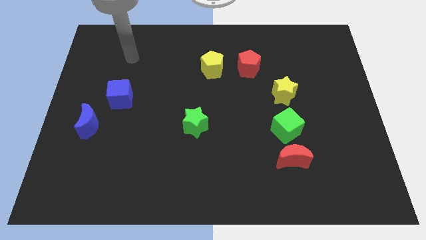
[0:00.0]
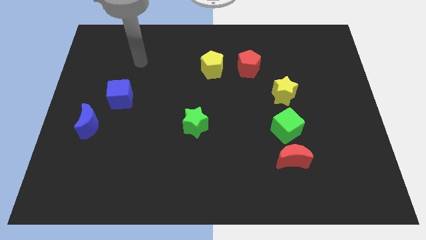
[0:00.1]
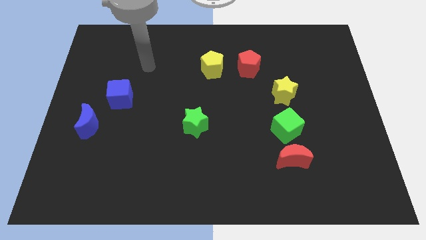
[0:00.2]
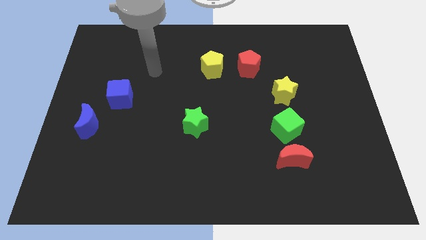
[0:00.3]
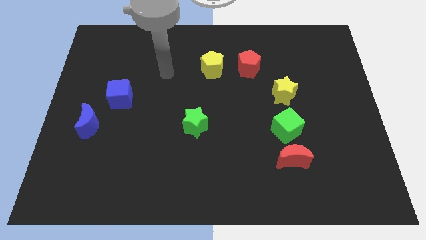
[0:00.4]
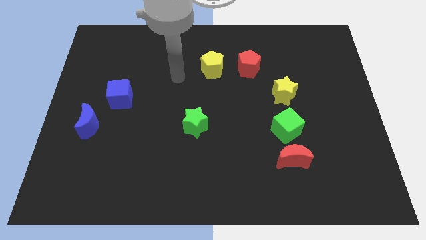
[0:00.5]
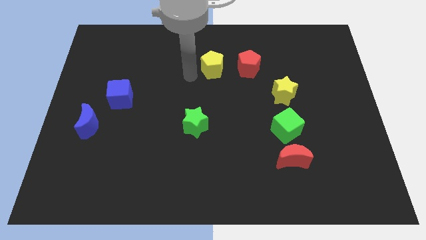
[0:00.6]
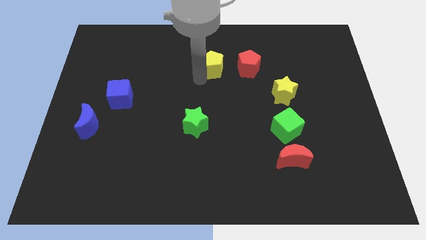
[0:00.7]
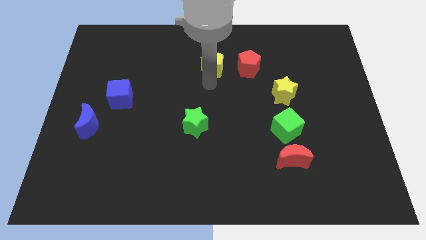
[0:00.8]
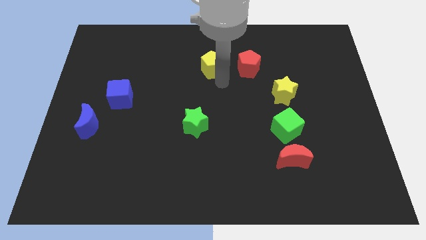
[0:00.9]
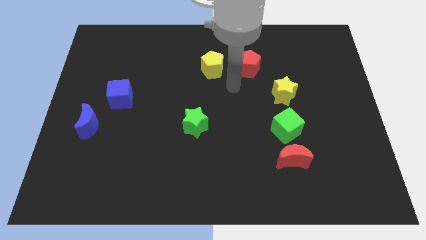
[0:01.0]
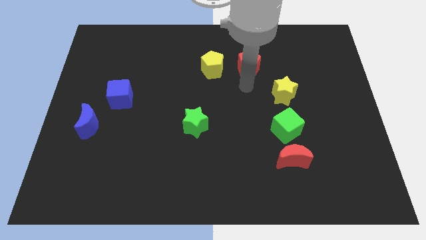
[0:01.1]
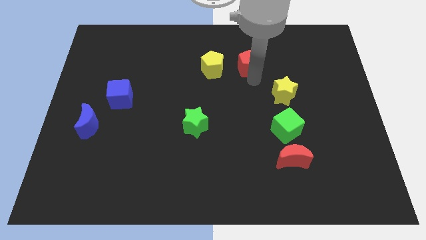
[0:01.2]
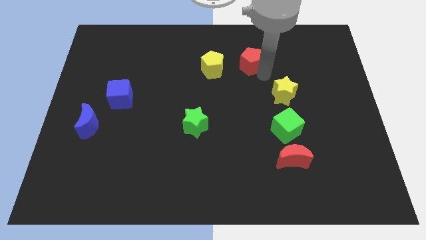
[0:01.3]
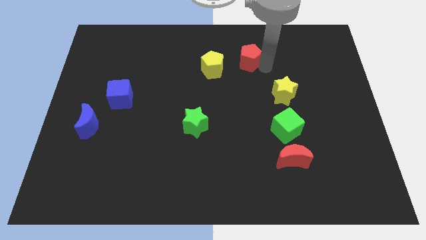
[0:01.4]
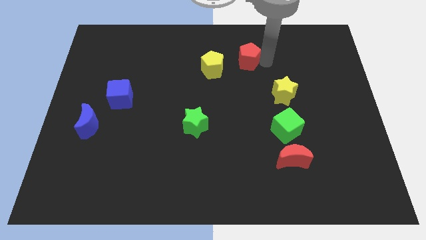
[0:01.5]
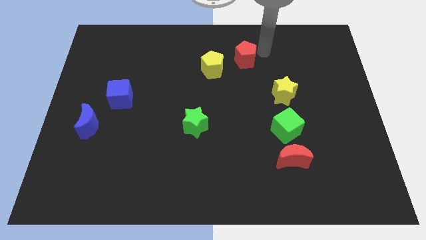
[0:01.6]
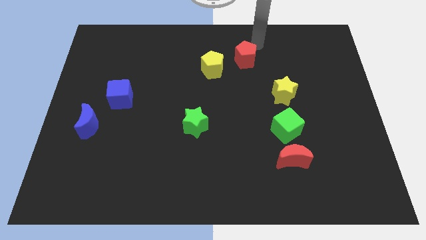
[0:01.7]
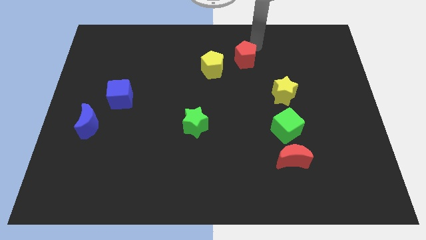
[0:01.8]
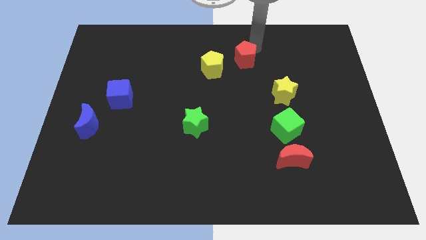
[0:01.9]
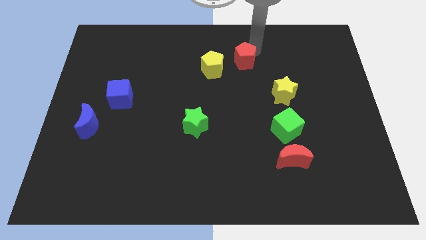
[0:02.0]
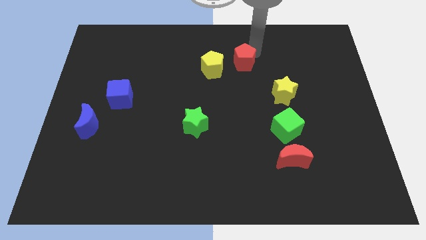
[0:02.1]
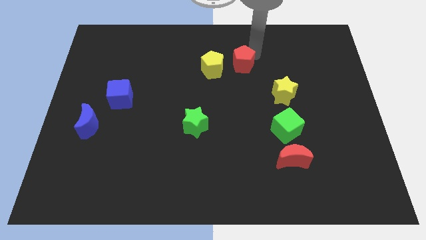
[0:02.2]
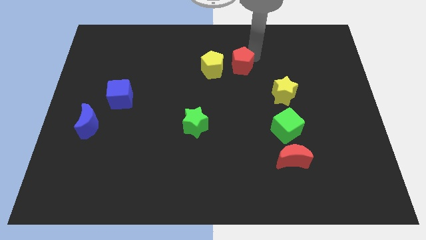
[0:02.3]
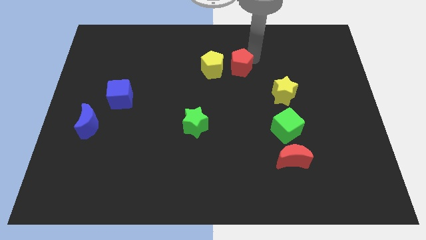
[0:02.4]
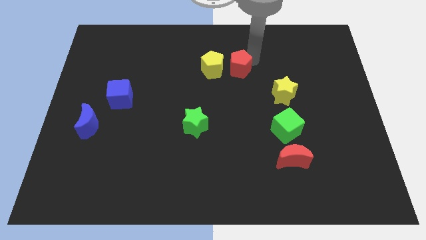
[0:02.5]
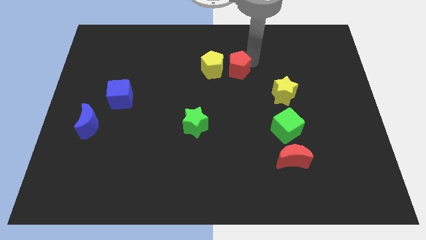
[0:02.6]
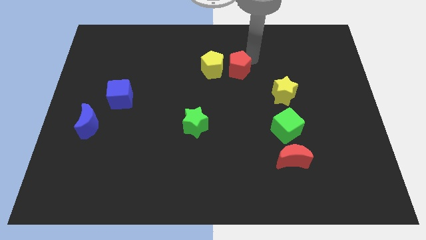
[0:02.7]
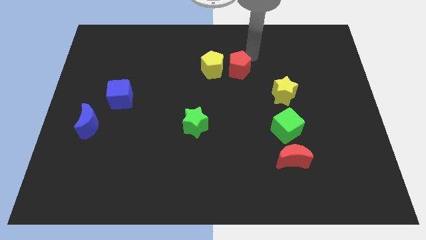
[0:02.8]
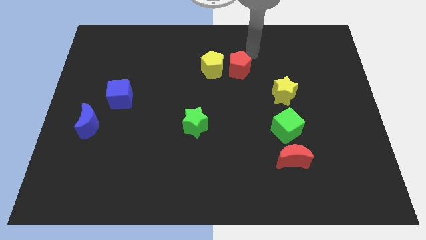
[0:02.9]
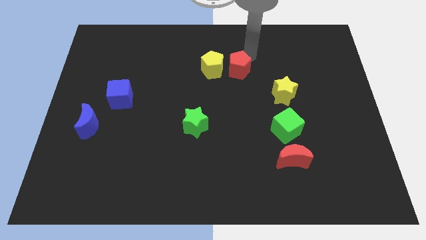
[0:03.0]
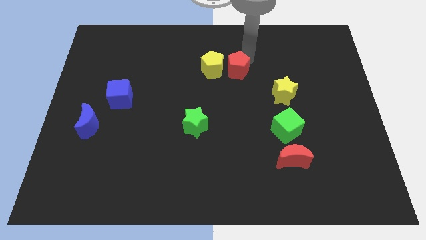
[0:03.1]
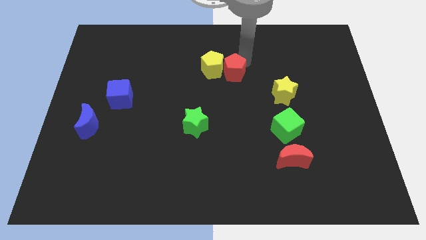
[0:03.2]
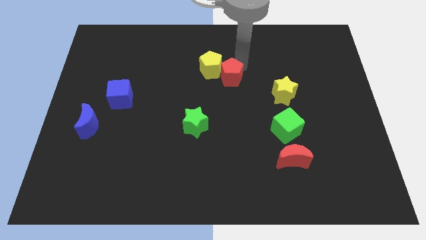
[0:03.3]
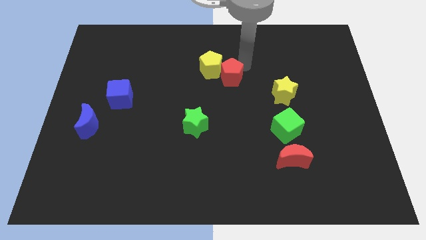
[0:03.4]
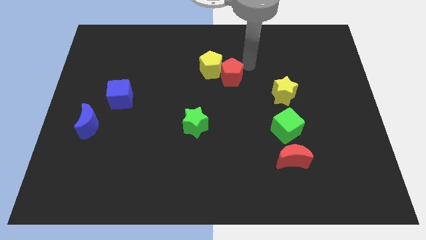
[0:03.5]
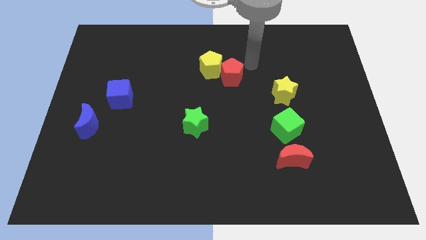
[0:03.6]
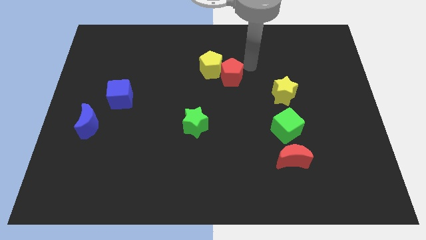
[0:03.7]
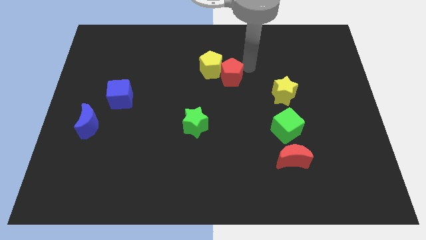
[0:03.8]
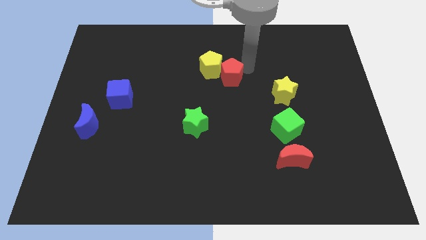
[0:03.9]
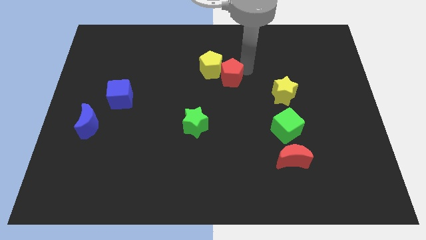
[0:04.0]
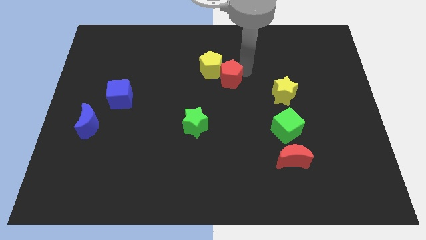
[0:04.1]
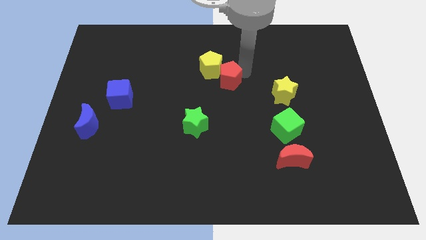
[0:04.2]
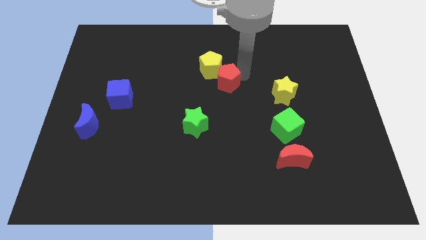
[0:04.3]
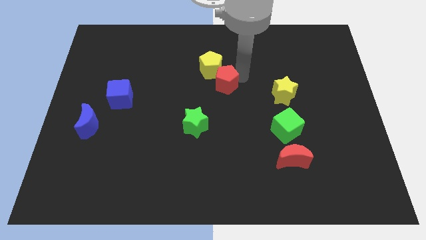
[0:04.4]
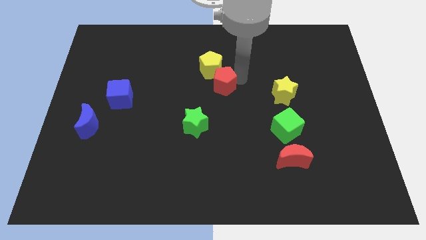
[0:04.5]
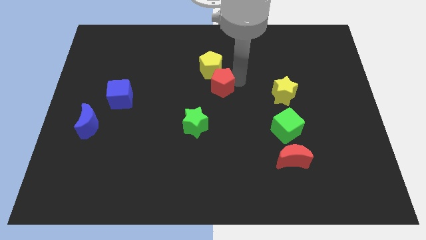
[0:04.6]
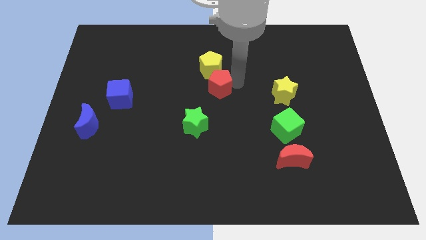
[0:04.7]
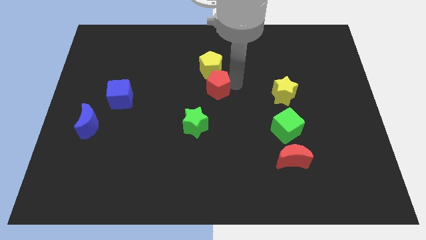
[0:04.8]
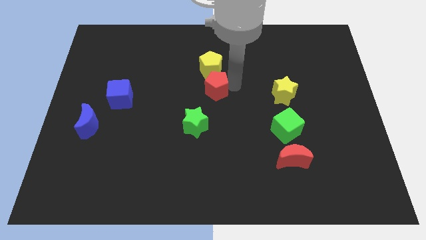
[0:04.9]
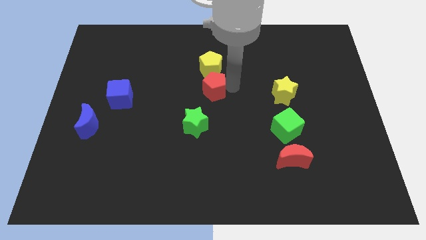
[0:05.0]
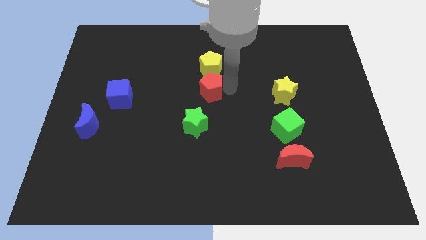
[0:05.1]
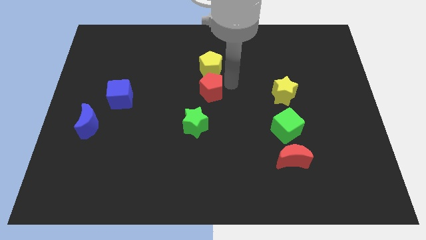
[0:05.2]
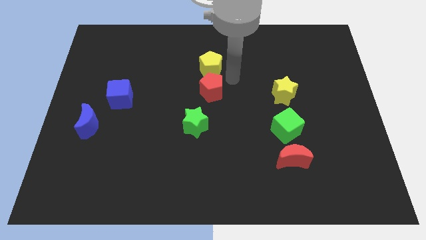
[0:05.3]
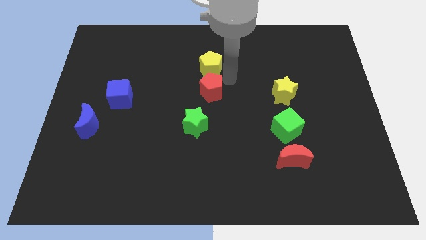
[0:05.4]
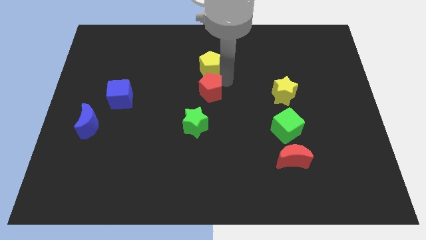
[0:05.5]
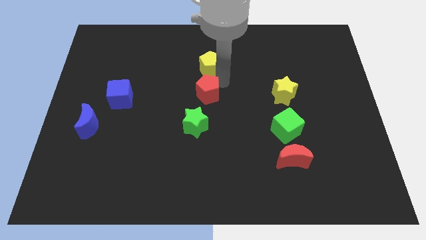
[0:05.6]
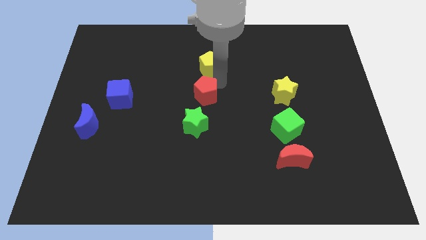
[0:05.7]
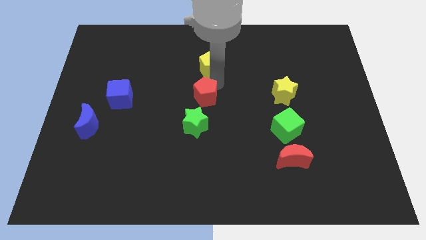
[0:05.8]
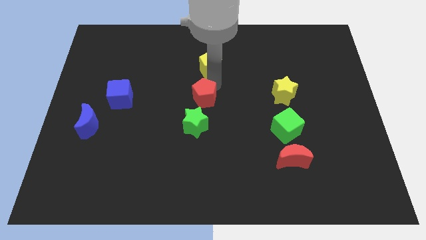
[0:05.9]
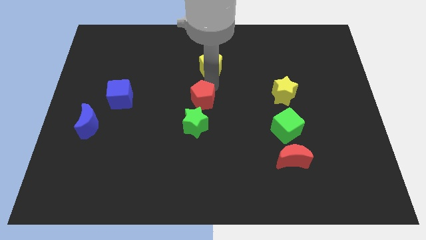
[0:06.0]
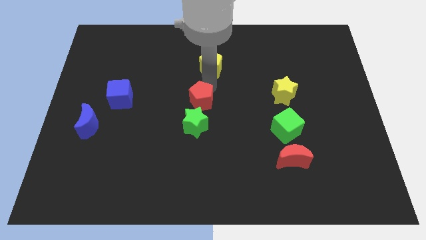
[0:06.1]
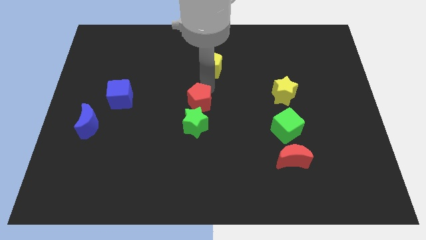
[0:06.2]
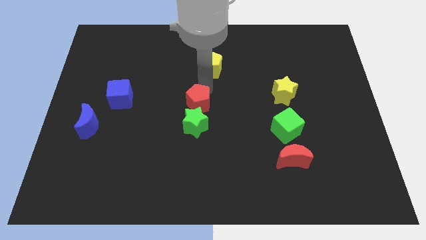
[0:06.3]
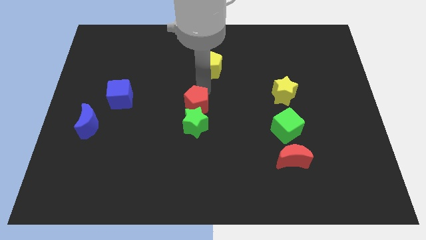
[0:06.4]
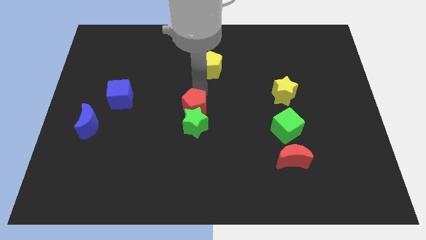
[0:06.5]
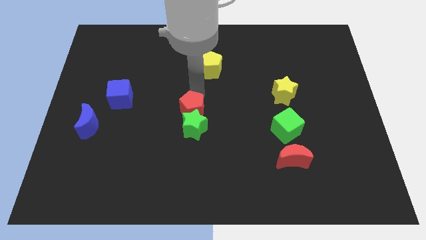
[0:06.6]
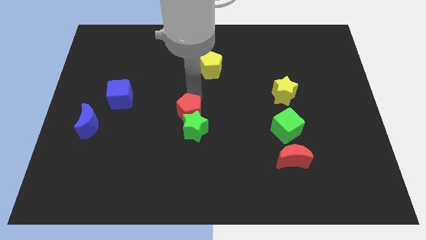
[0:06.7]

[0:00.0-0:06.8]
move the red pentagon down and to the left

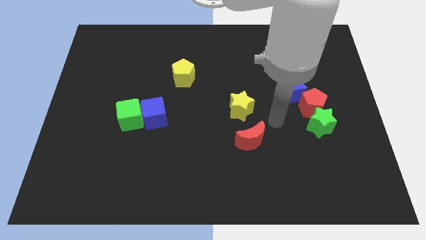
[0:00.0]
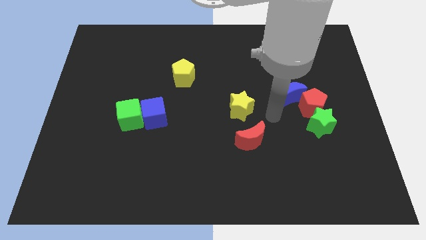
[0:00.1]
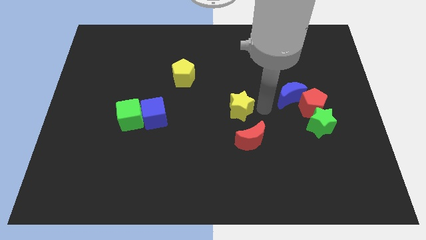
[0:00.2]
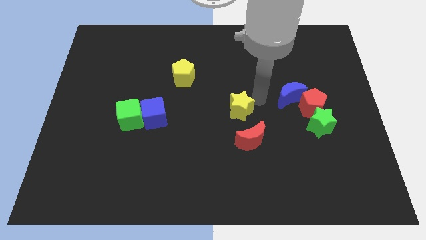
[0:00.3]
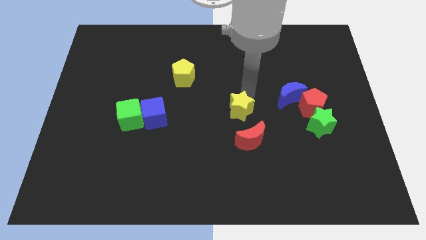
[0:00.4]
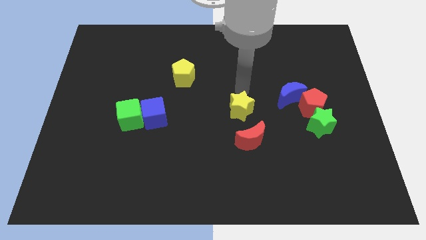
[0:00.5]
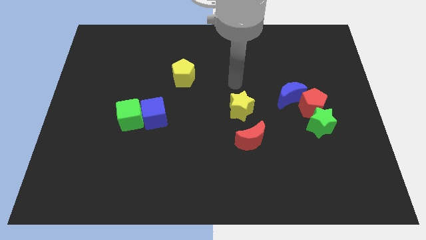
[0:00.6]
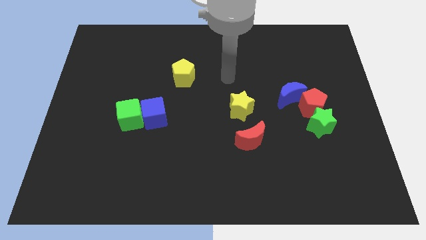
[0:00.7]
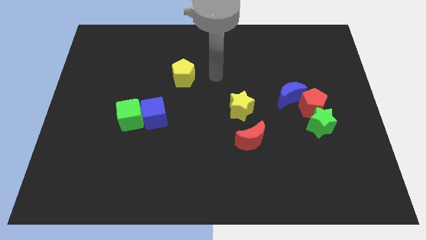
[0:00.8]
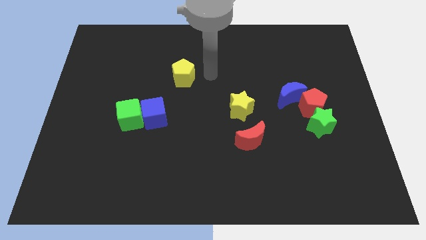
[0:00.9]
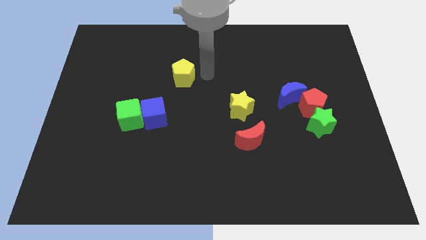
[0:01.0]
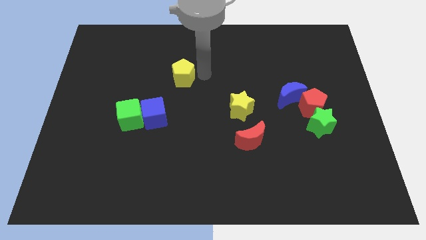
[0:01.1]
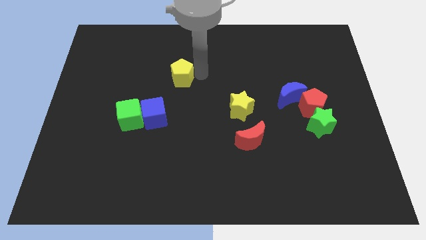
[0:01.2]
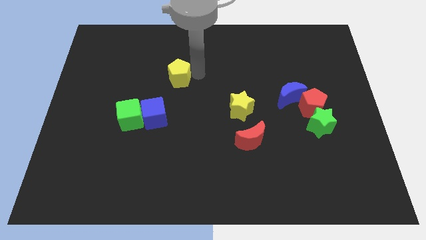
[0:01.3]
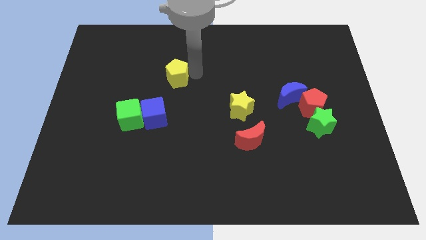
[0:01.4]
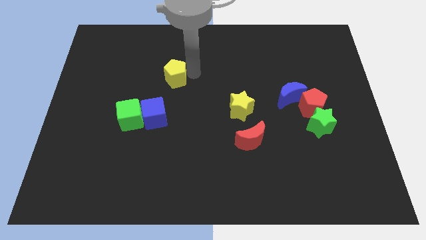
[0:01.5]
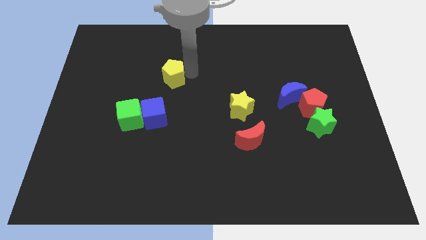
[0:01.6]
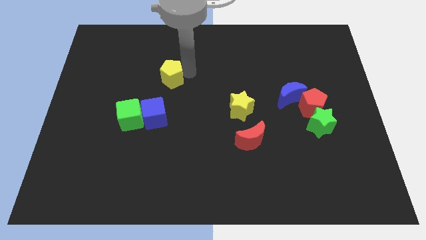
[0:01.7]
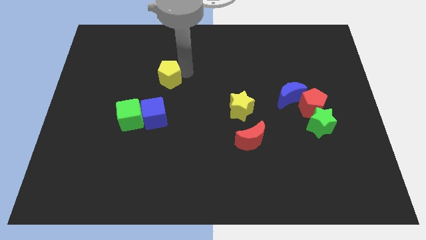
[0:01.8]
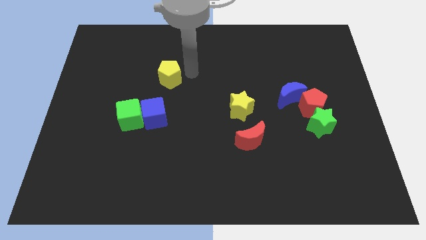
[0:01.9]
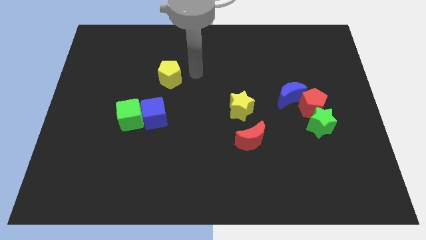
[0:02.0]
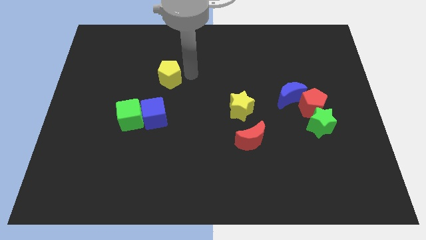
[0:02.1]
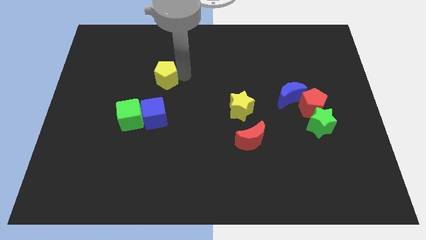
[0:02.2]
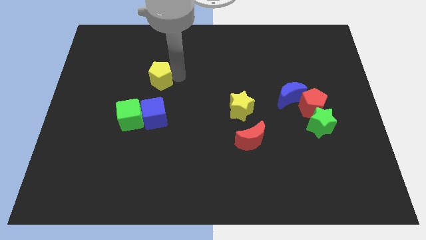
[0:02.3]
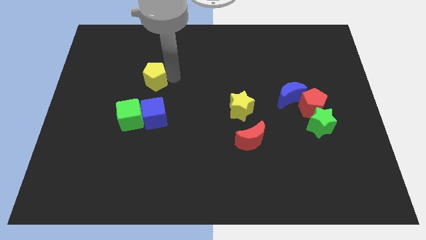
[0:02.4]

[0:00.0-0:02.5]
slightly slide the yellow pentagon left
